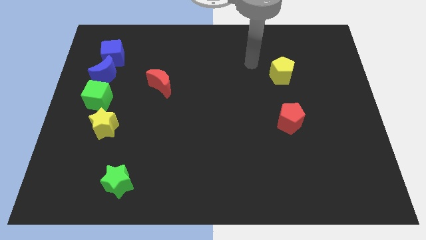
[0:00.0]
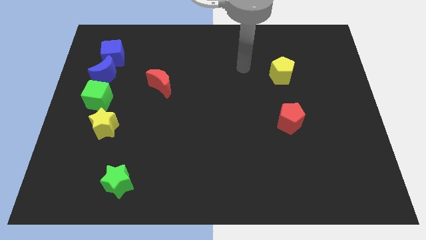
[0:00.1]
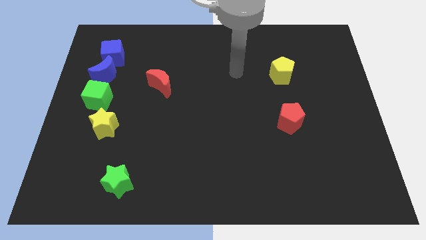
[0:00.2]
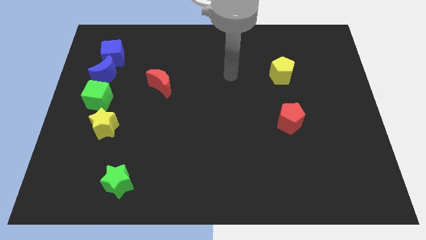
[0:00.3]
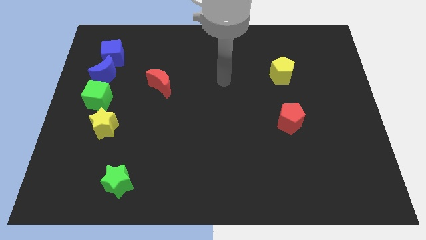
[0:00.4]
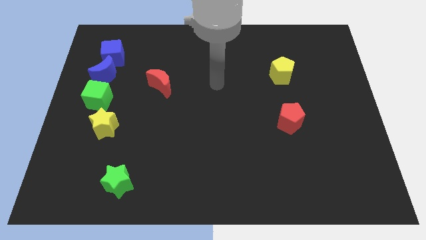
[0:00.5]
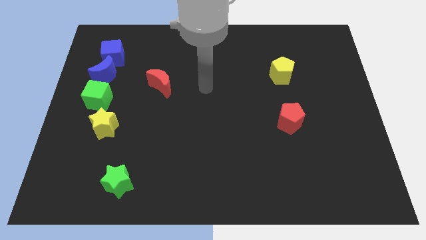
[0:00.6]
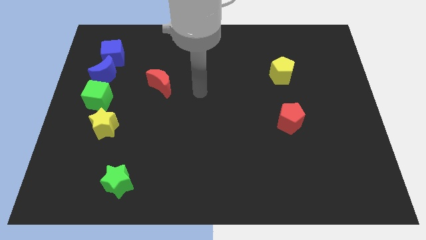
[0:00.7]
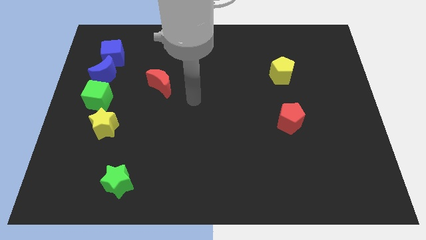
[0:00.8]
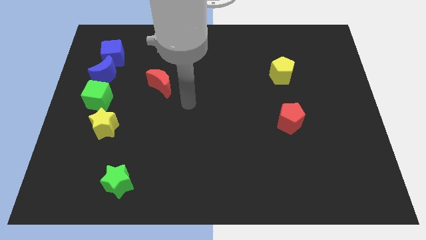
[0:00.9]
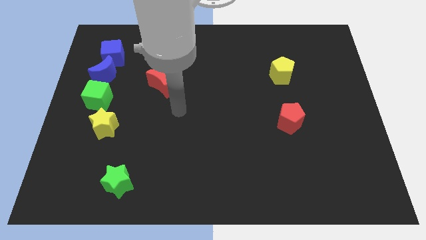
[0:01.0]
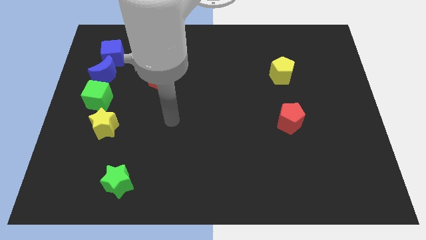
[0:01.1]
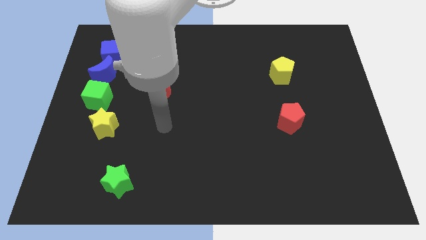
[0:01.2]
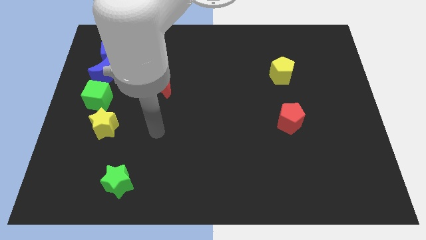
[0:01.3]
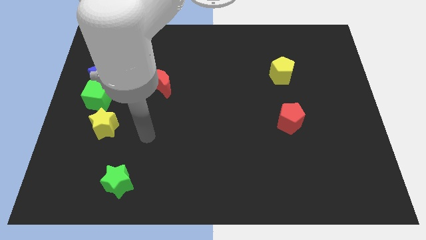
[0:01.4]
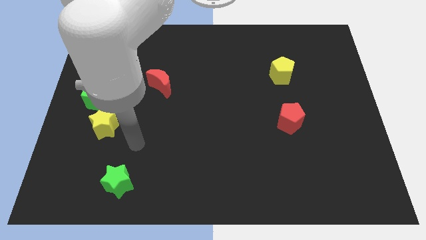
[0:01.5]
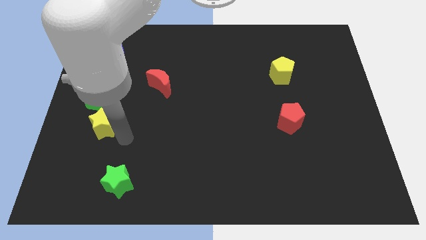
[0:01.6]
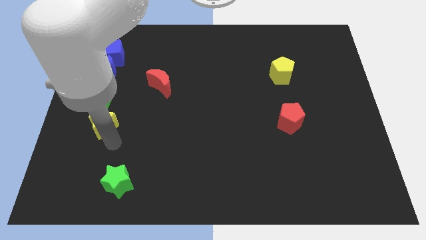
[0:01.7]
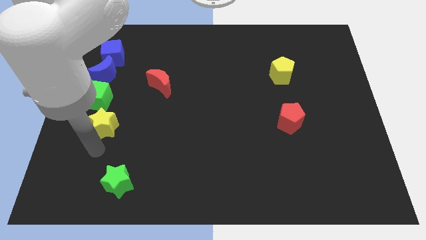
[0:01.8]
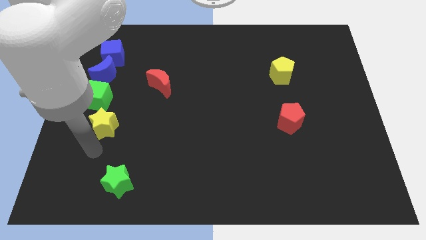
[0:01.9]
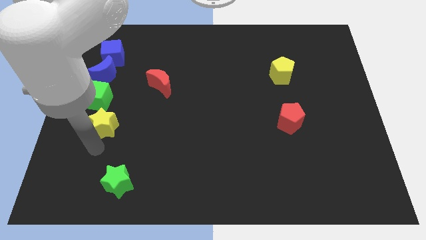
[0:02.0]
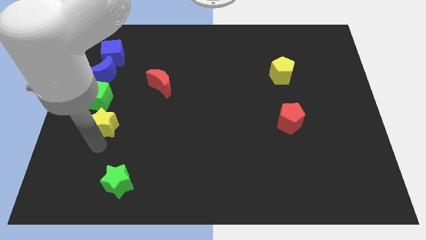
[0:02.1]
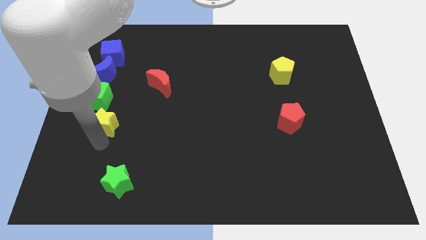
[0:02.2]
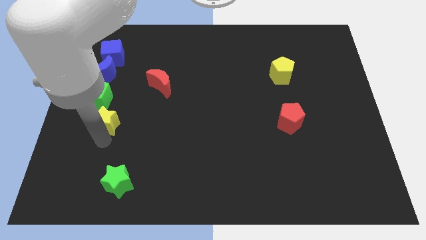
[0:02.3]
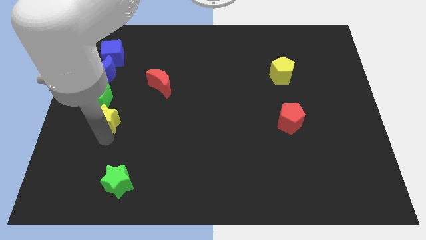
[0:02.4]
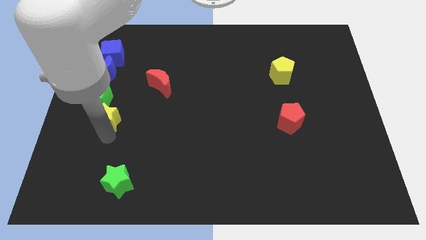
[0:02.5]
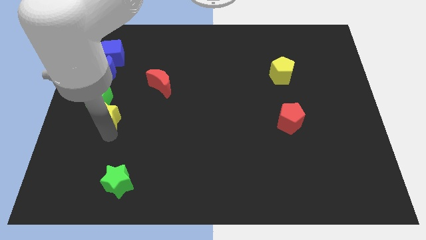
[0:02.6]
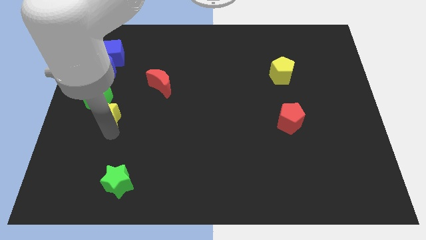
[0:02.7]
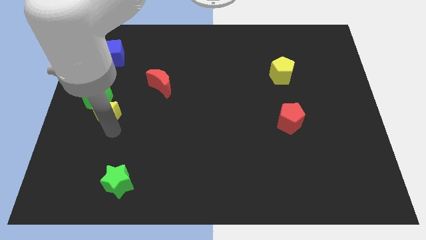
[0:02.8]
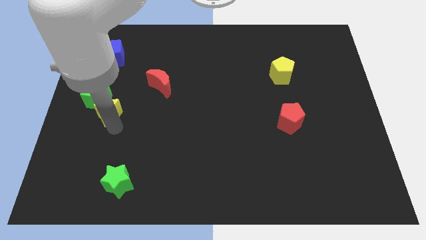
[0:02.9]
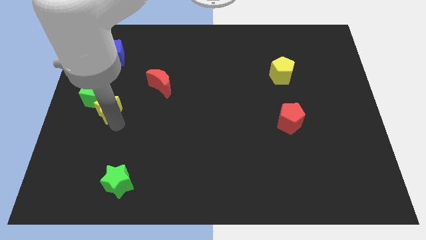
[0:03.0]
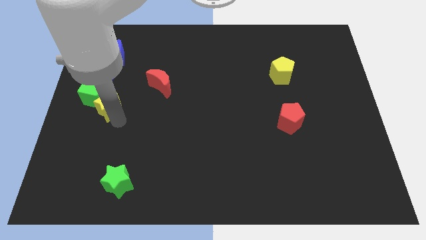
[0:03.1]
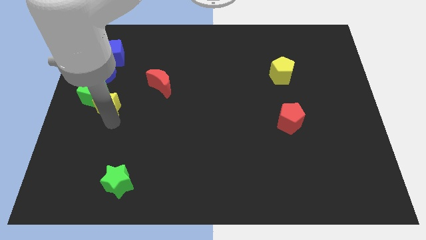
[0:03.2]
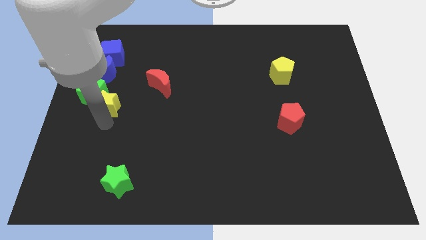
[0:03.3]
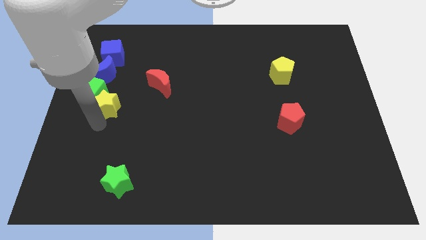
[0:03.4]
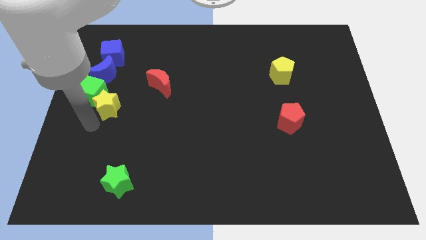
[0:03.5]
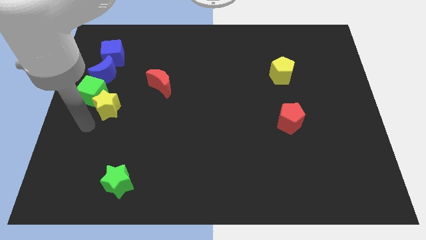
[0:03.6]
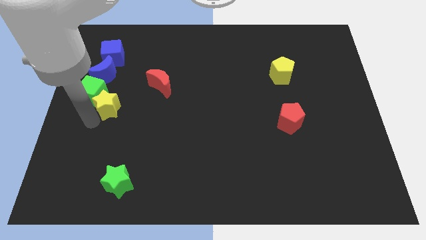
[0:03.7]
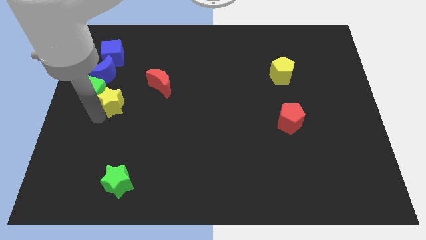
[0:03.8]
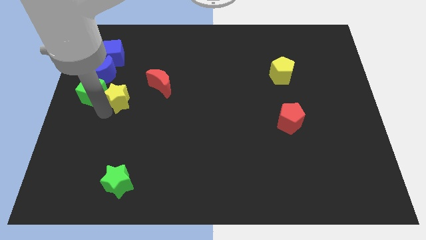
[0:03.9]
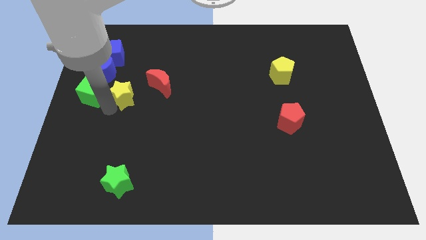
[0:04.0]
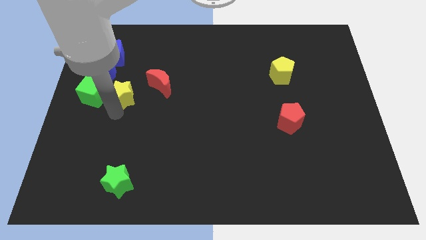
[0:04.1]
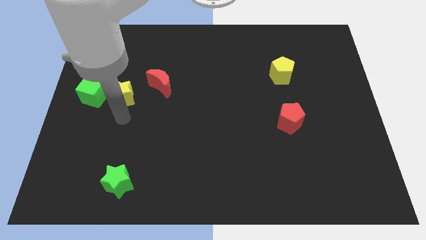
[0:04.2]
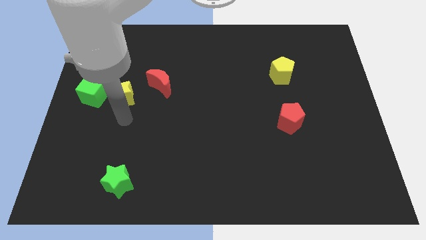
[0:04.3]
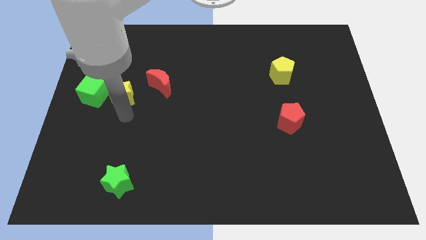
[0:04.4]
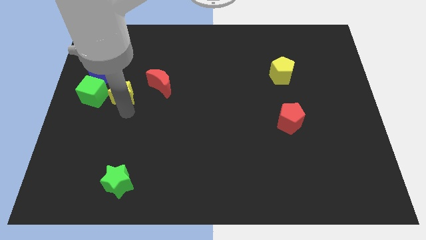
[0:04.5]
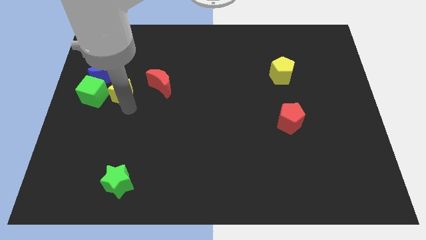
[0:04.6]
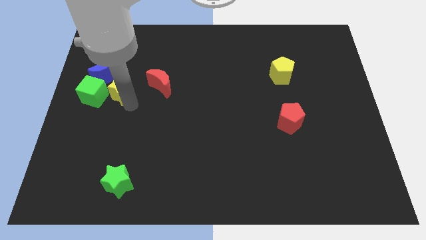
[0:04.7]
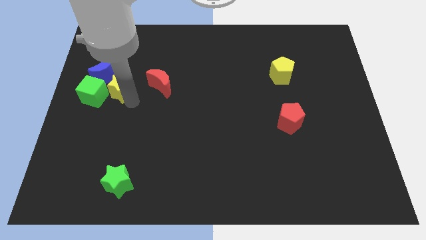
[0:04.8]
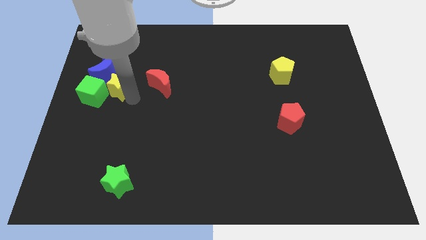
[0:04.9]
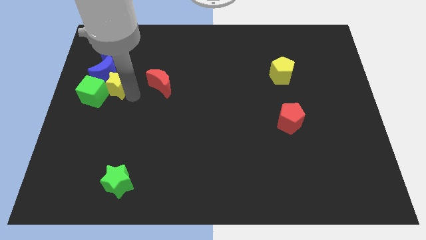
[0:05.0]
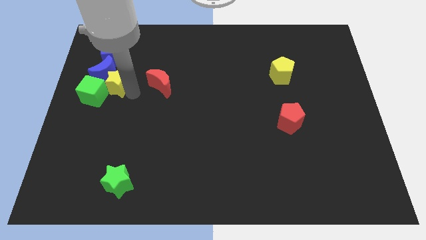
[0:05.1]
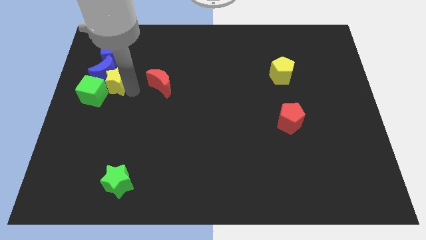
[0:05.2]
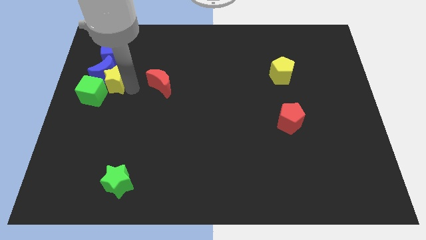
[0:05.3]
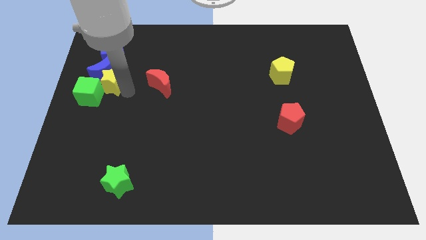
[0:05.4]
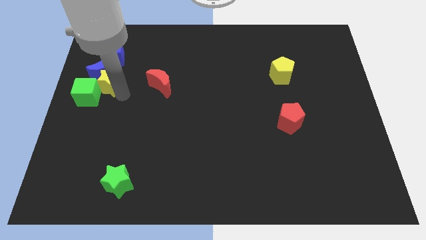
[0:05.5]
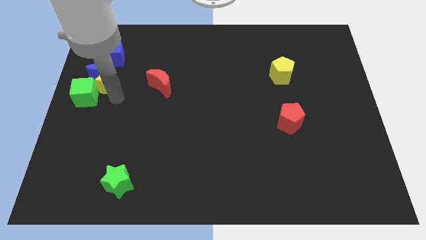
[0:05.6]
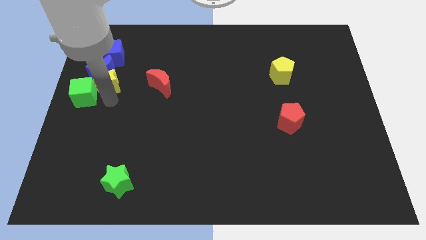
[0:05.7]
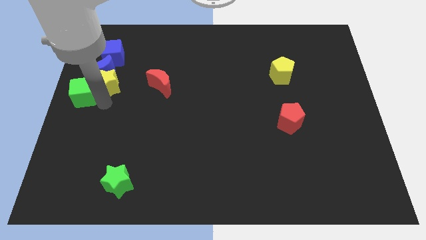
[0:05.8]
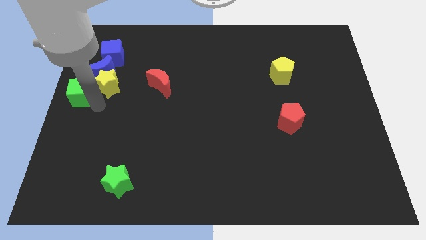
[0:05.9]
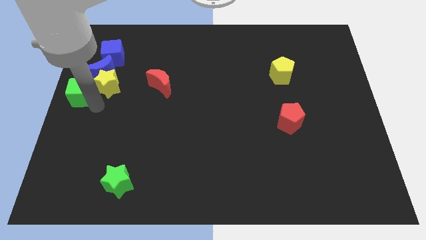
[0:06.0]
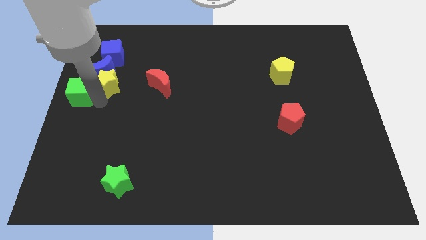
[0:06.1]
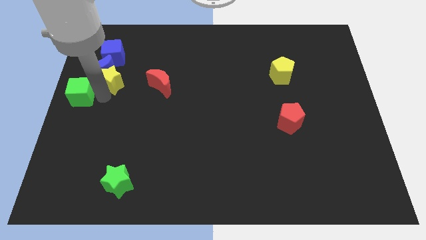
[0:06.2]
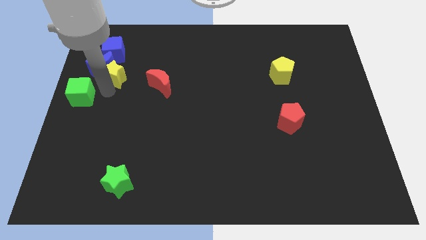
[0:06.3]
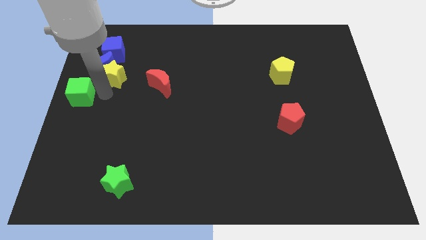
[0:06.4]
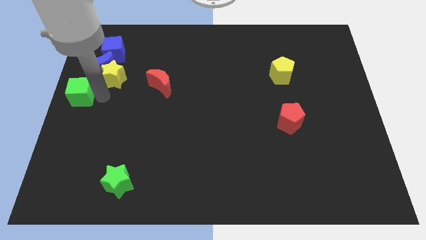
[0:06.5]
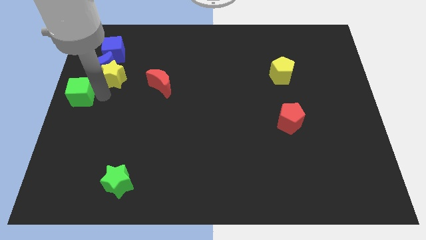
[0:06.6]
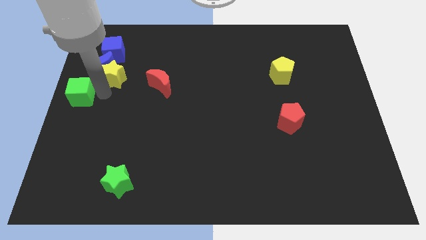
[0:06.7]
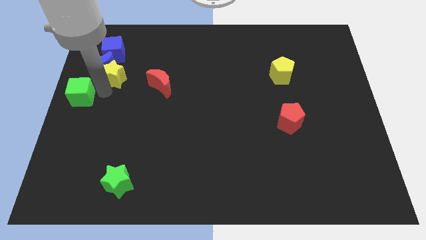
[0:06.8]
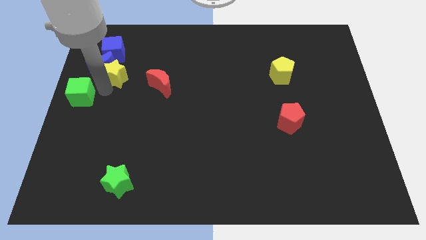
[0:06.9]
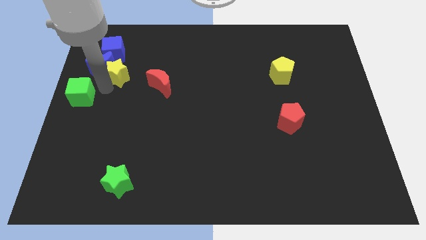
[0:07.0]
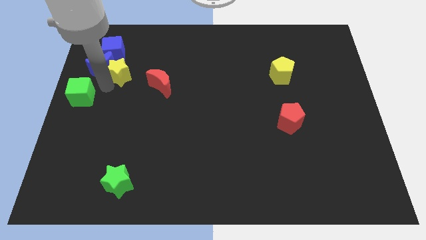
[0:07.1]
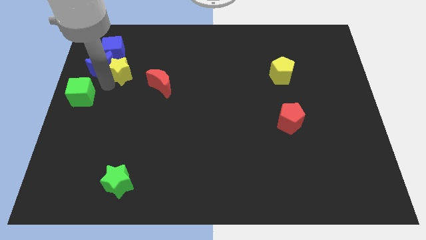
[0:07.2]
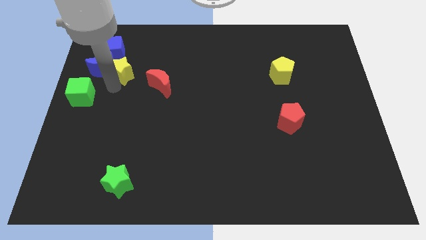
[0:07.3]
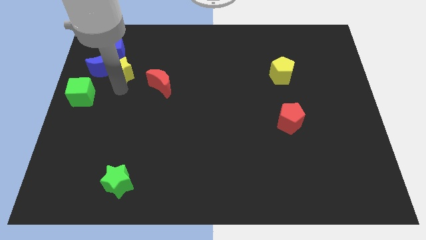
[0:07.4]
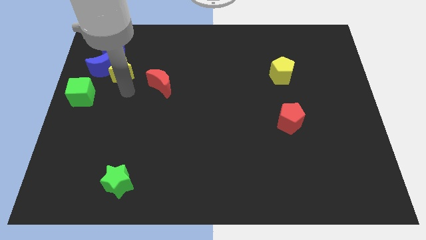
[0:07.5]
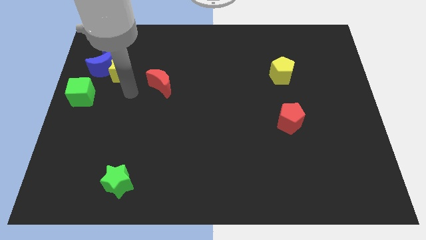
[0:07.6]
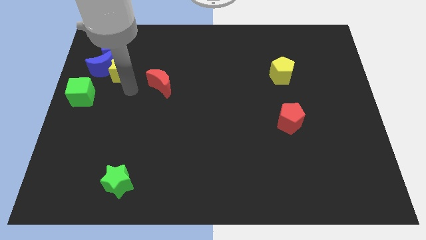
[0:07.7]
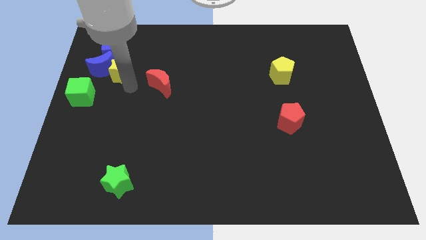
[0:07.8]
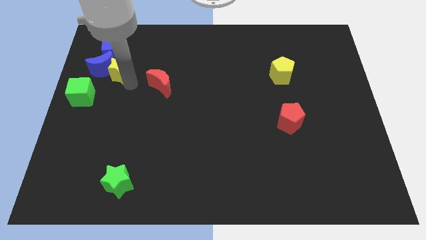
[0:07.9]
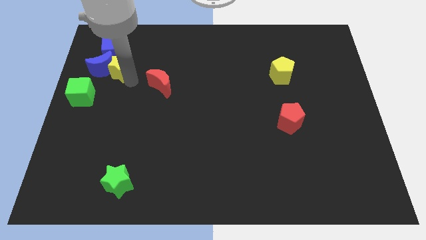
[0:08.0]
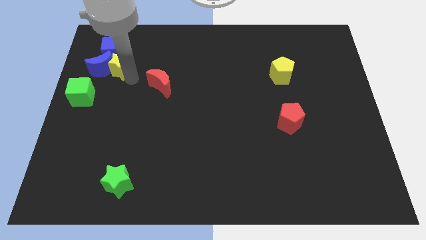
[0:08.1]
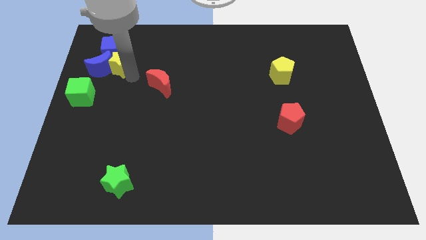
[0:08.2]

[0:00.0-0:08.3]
push the yellow star towards the blue cube
